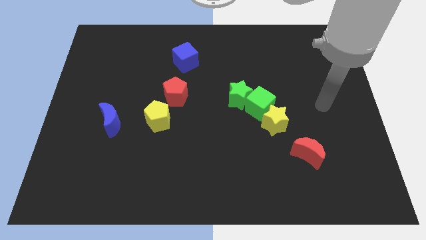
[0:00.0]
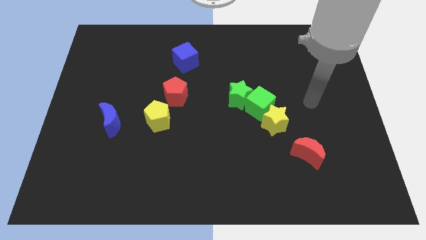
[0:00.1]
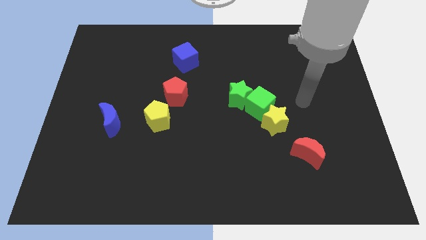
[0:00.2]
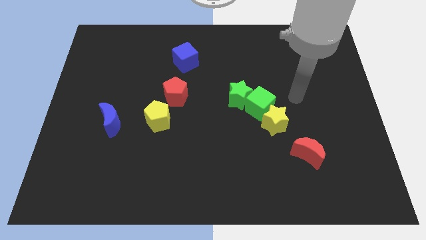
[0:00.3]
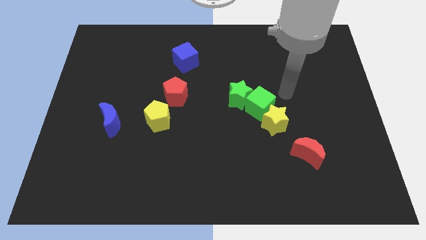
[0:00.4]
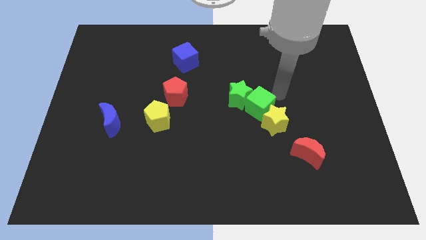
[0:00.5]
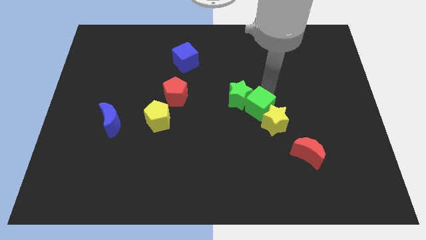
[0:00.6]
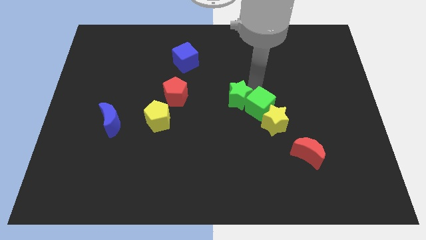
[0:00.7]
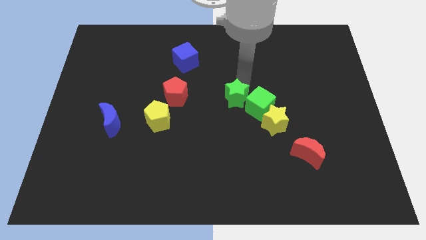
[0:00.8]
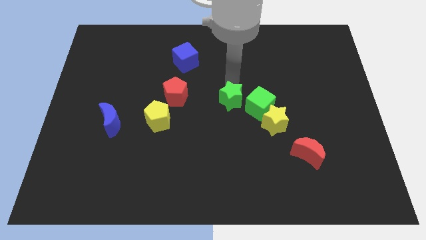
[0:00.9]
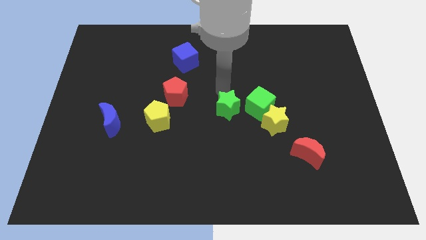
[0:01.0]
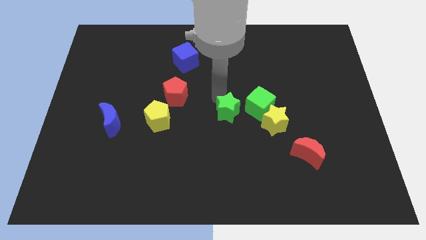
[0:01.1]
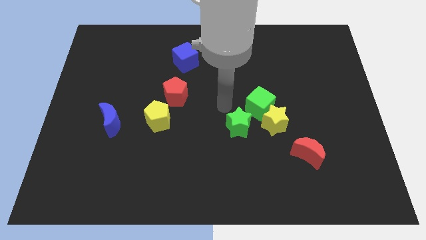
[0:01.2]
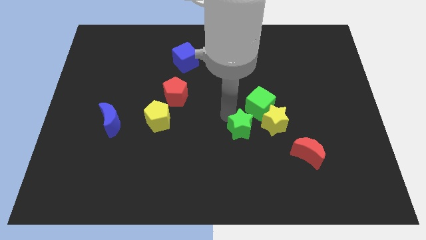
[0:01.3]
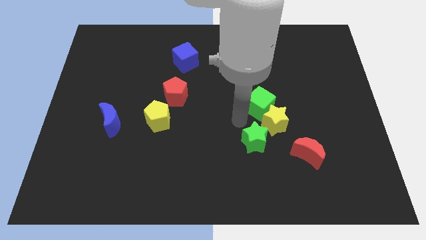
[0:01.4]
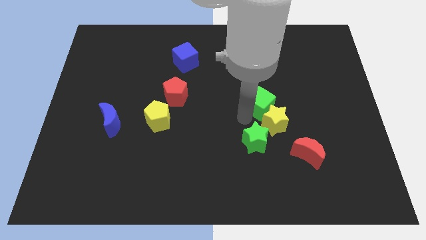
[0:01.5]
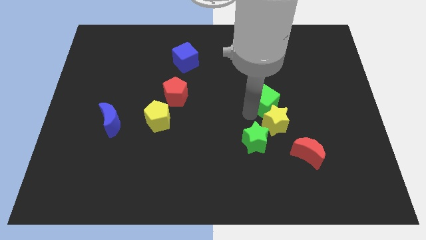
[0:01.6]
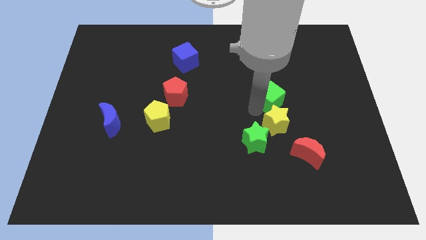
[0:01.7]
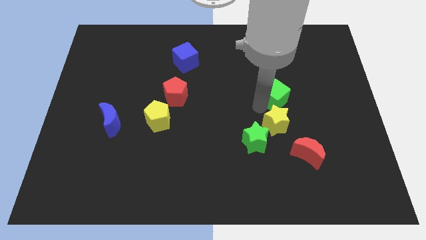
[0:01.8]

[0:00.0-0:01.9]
move the green cube away from the green star and yellow star

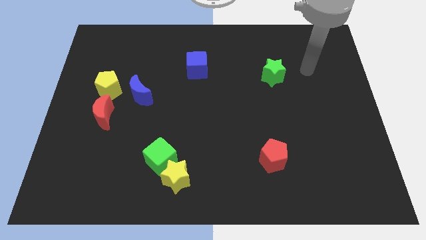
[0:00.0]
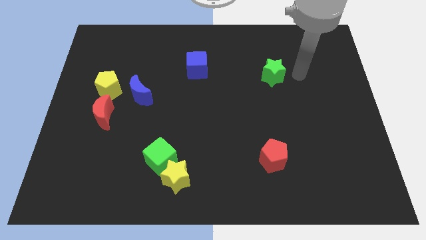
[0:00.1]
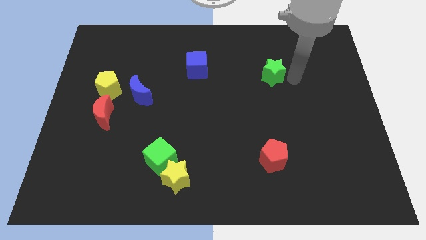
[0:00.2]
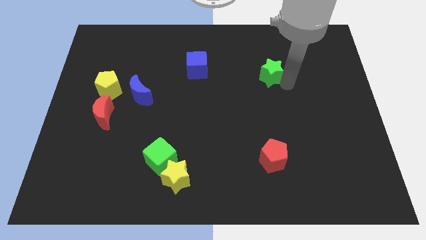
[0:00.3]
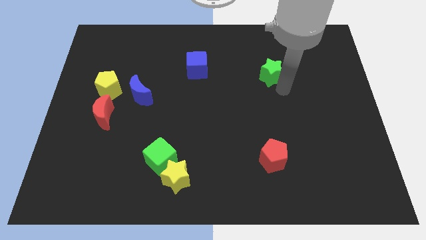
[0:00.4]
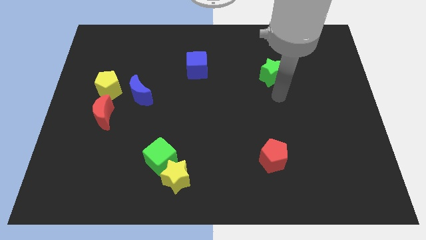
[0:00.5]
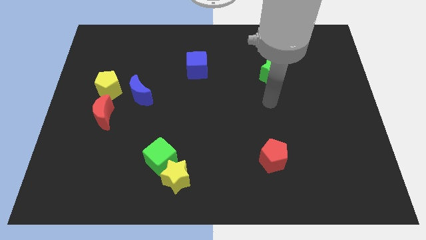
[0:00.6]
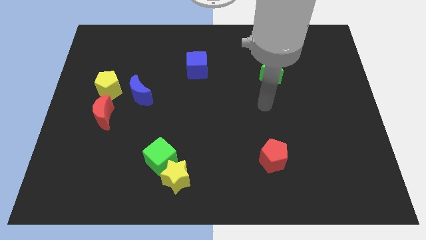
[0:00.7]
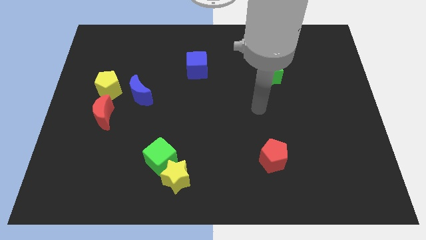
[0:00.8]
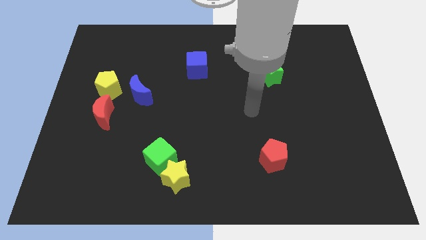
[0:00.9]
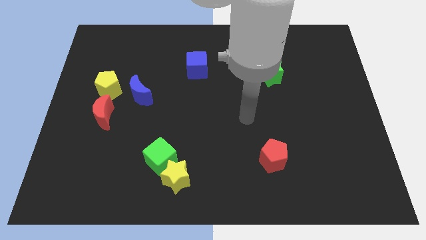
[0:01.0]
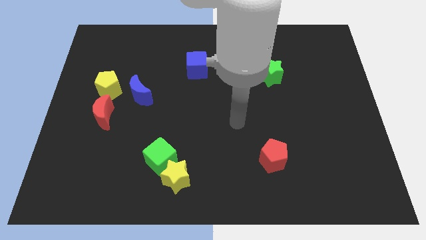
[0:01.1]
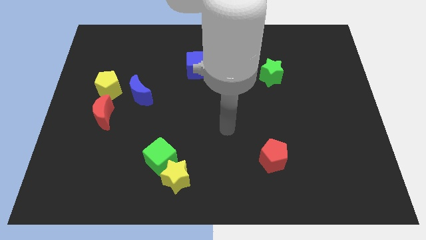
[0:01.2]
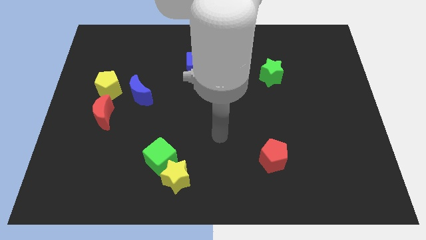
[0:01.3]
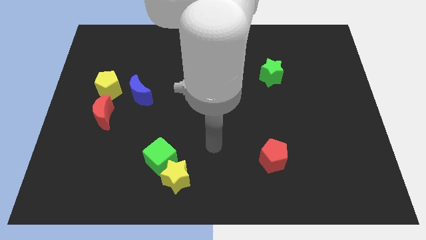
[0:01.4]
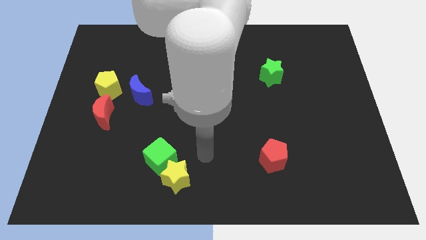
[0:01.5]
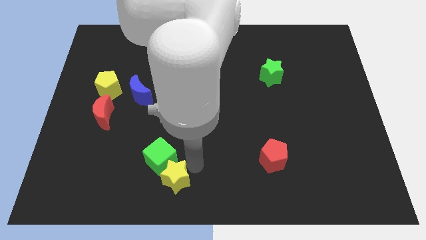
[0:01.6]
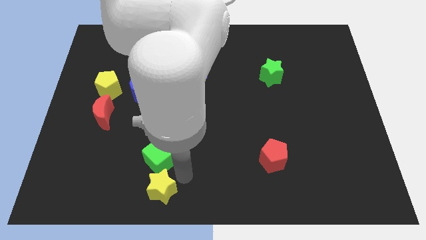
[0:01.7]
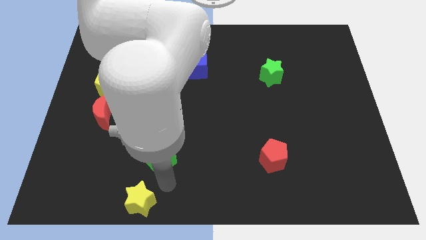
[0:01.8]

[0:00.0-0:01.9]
pull the green cube apart from the yellow star

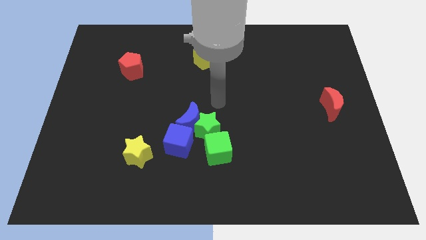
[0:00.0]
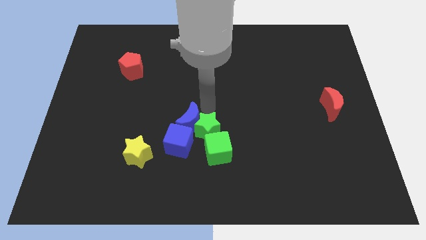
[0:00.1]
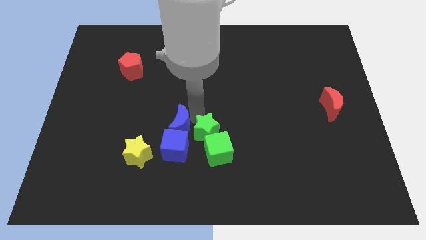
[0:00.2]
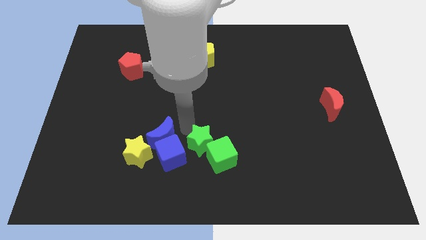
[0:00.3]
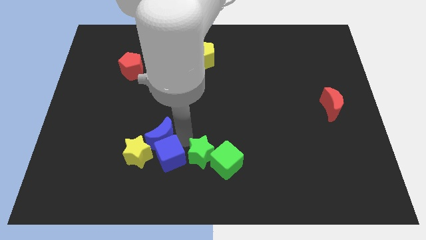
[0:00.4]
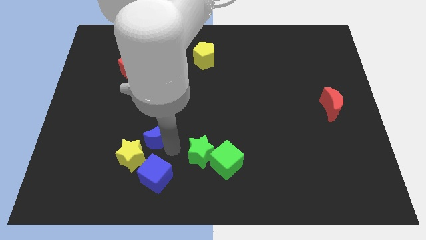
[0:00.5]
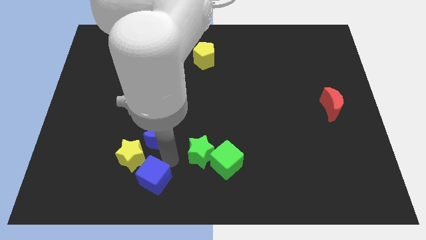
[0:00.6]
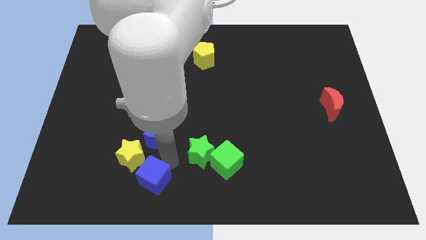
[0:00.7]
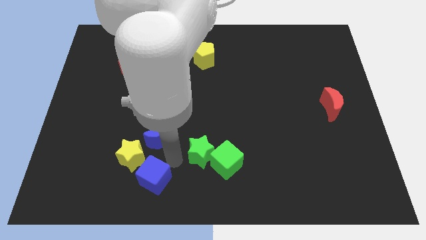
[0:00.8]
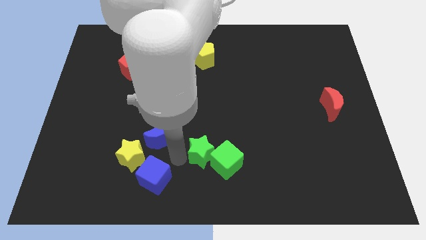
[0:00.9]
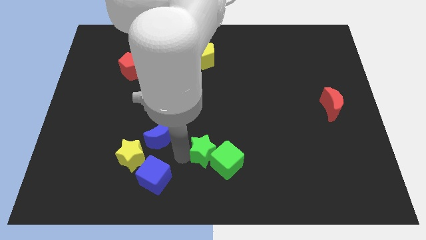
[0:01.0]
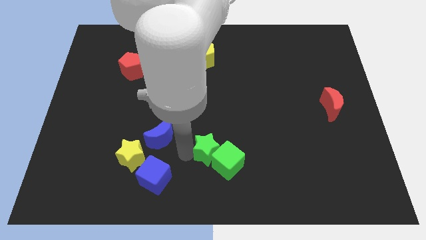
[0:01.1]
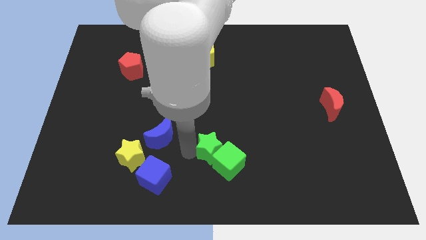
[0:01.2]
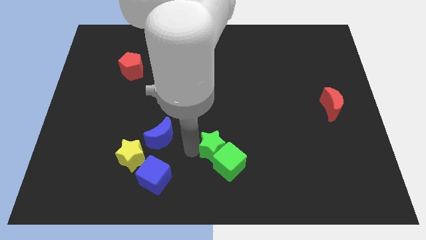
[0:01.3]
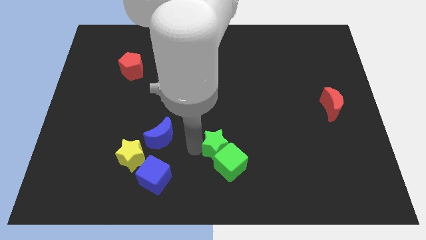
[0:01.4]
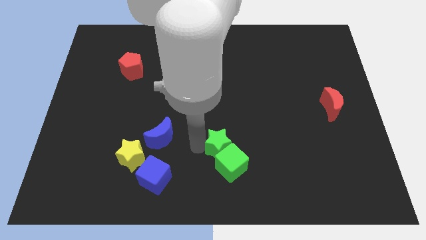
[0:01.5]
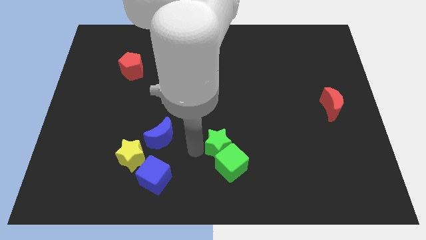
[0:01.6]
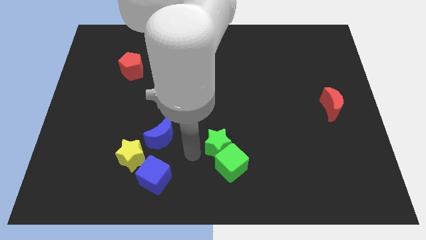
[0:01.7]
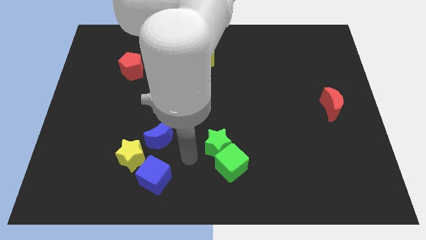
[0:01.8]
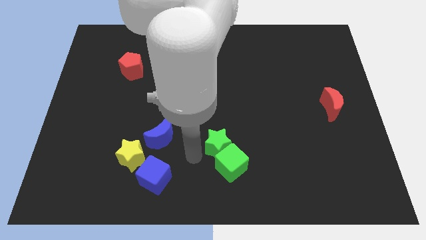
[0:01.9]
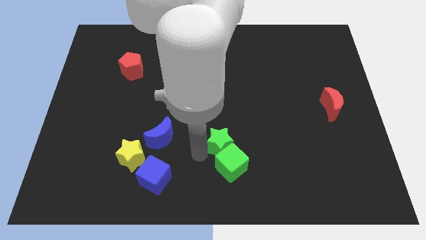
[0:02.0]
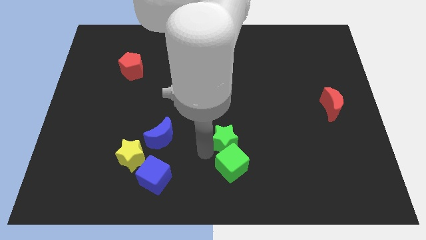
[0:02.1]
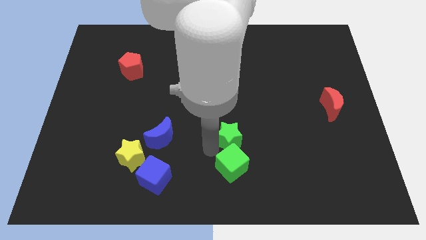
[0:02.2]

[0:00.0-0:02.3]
move the green star away from the blue moon, green cube, and blue cube

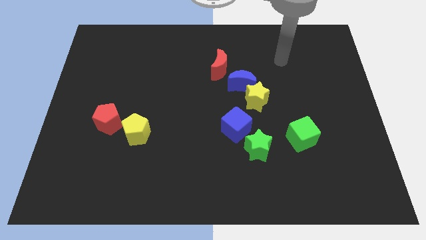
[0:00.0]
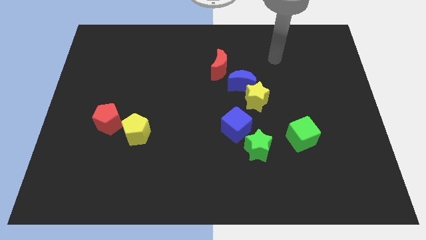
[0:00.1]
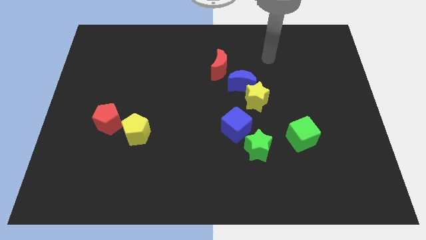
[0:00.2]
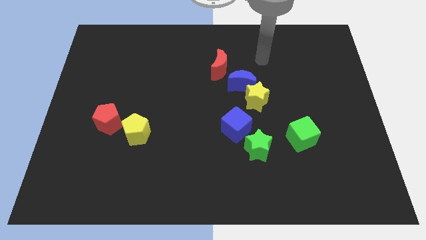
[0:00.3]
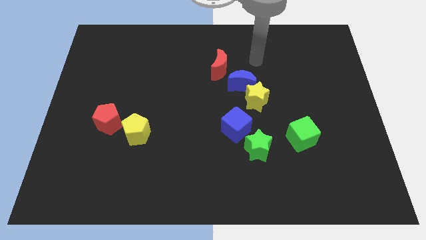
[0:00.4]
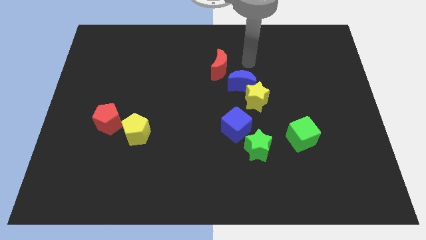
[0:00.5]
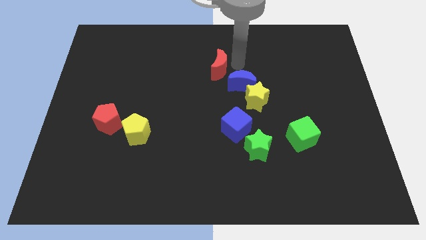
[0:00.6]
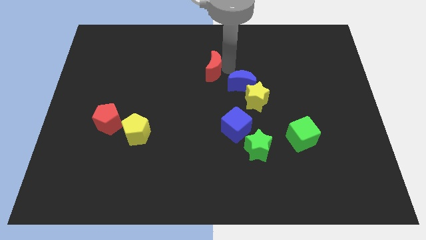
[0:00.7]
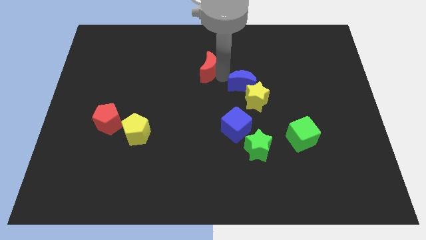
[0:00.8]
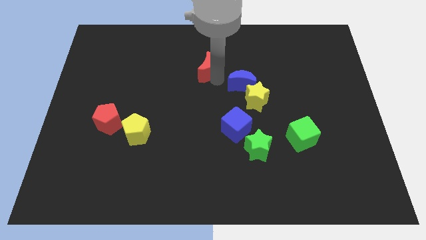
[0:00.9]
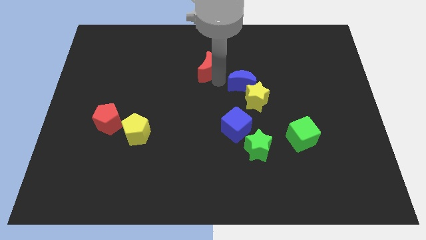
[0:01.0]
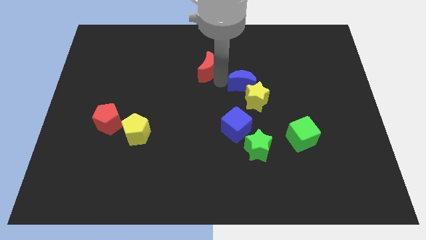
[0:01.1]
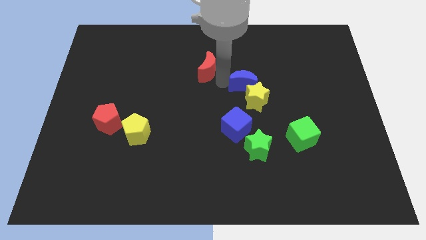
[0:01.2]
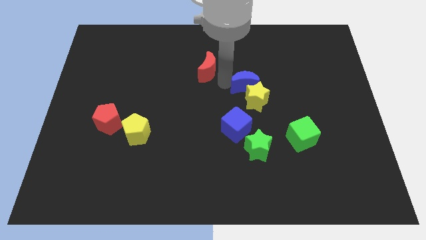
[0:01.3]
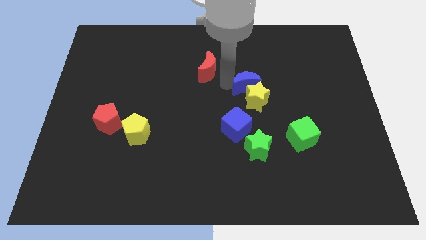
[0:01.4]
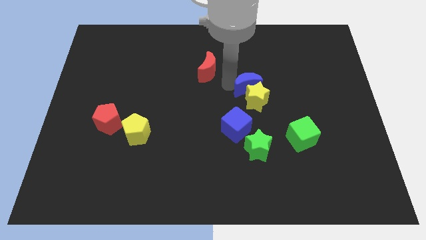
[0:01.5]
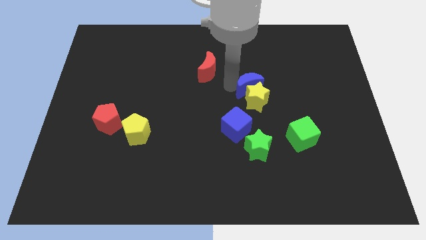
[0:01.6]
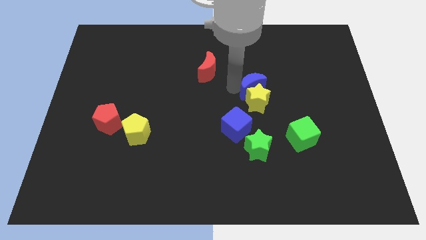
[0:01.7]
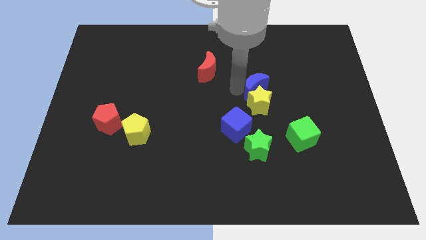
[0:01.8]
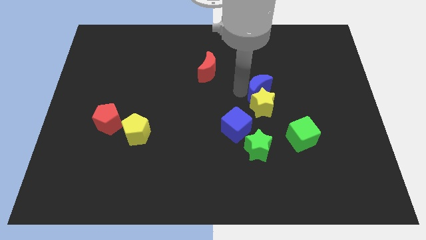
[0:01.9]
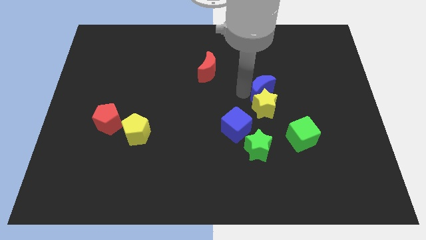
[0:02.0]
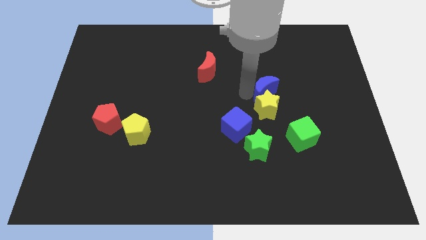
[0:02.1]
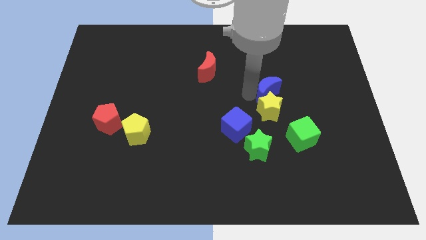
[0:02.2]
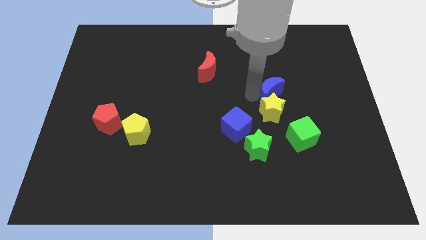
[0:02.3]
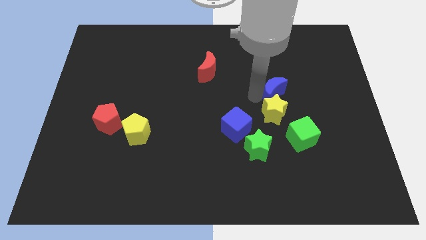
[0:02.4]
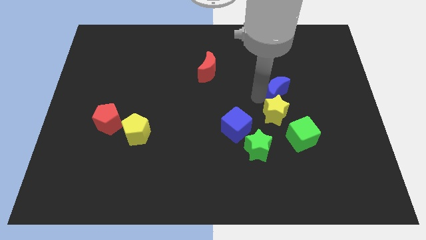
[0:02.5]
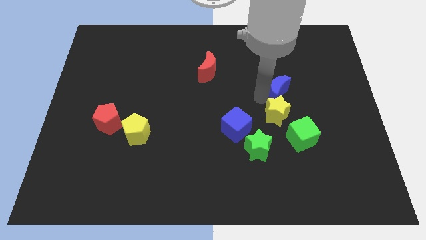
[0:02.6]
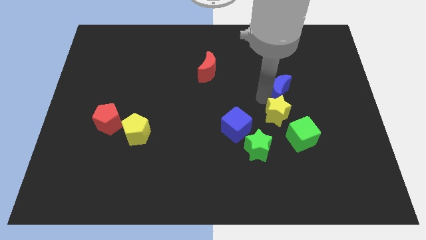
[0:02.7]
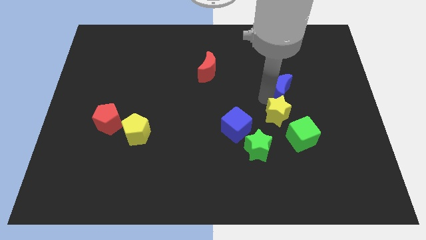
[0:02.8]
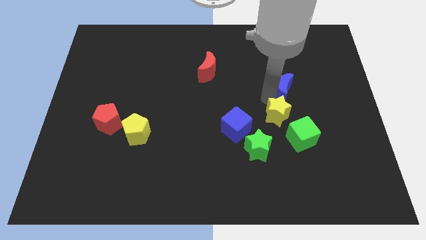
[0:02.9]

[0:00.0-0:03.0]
move the blue moon away from the yellow star and red moon

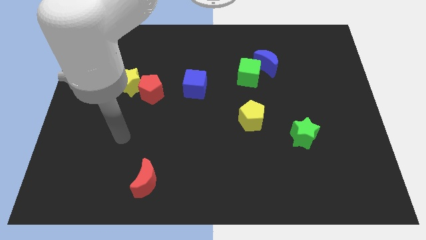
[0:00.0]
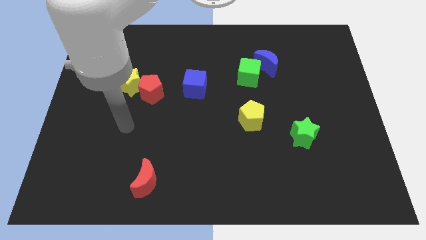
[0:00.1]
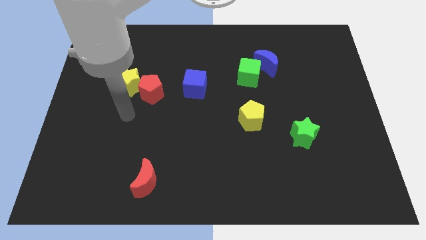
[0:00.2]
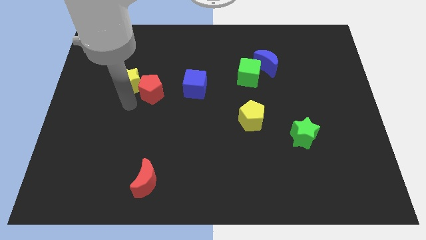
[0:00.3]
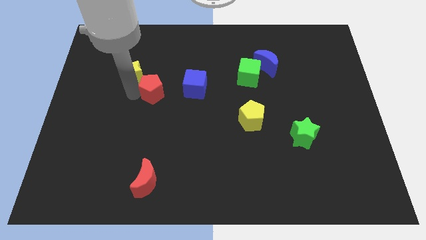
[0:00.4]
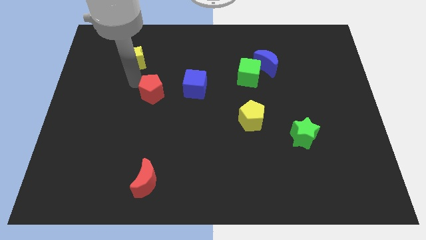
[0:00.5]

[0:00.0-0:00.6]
move the red pentagon away from the yellow star
